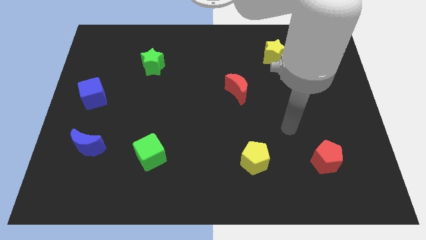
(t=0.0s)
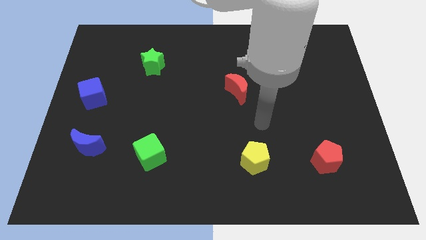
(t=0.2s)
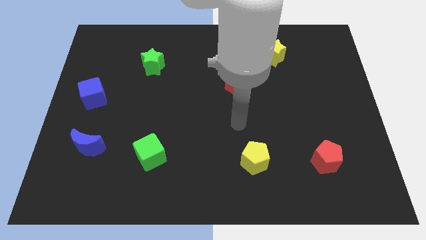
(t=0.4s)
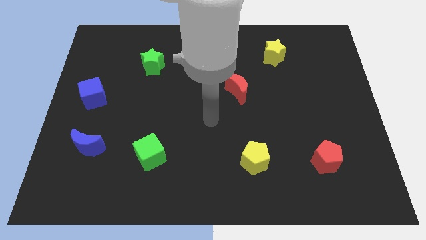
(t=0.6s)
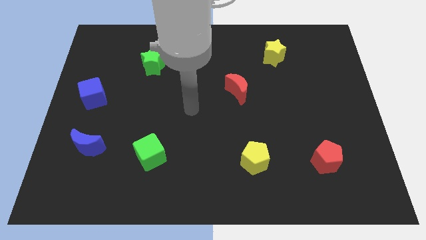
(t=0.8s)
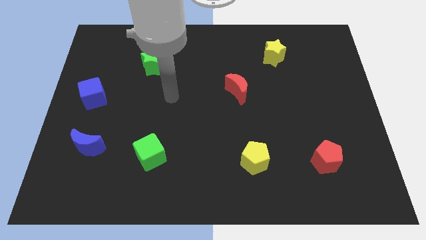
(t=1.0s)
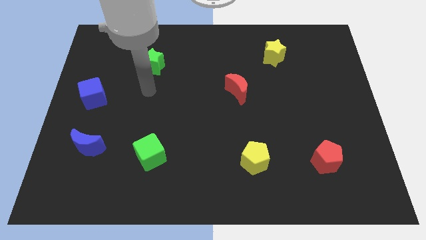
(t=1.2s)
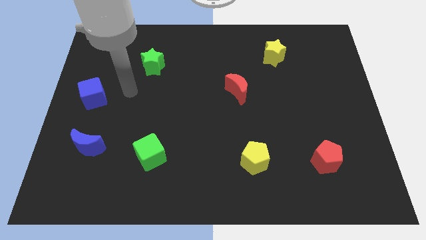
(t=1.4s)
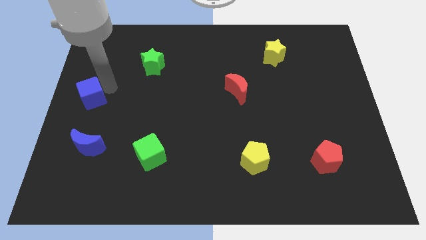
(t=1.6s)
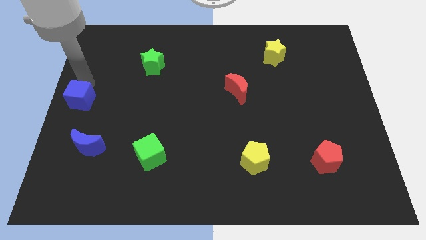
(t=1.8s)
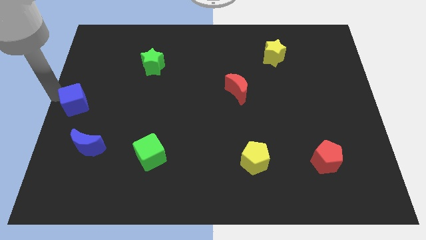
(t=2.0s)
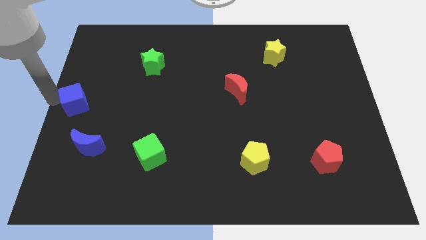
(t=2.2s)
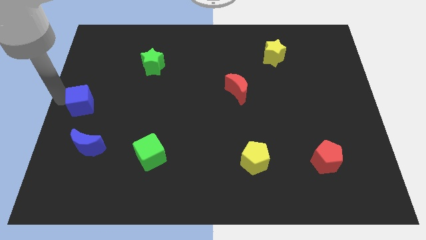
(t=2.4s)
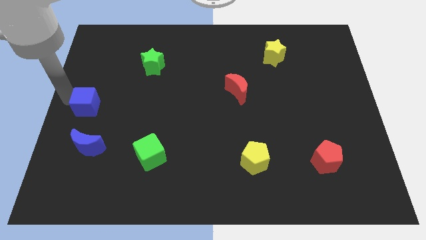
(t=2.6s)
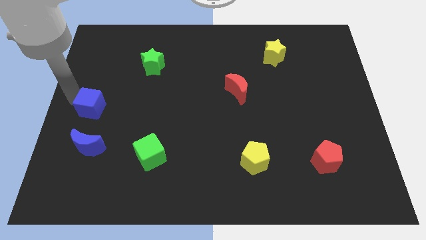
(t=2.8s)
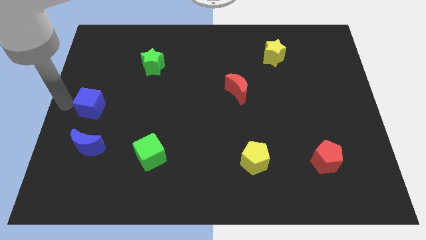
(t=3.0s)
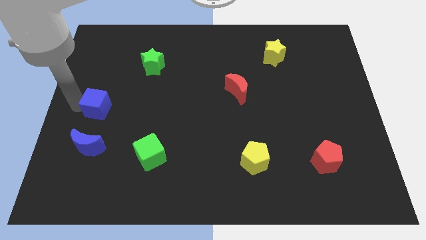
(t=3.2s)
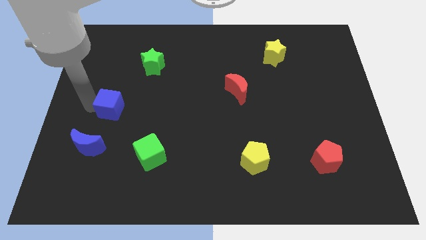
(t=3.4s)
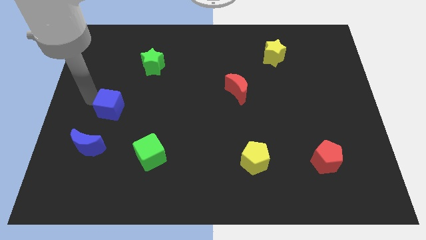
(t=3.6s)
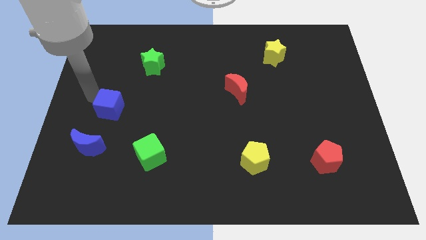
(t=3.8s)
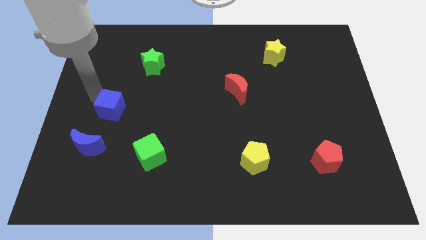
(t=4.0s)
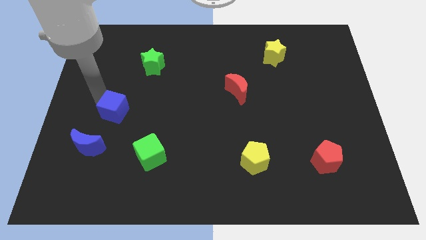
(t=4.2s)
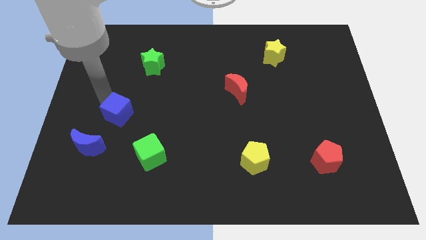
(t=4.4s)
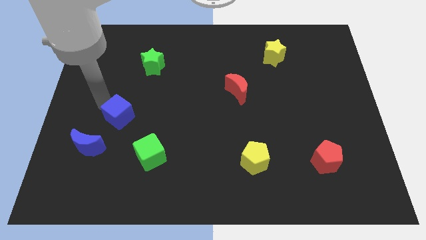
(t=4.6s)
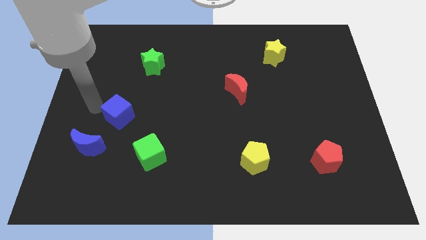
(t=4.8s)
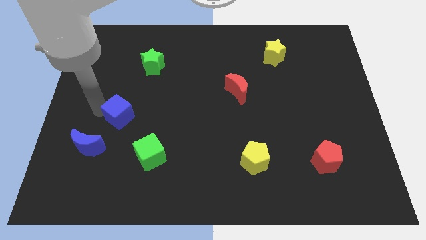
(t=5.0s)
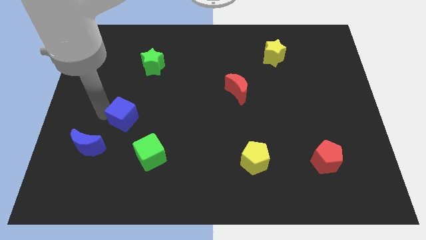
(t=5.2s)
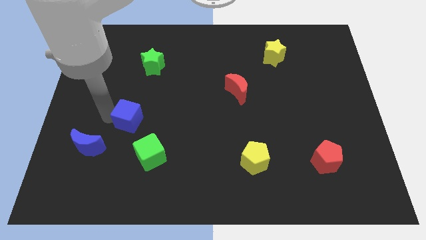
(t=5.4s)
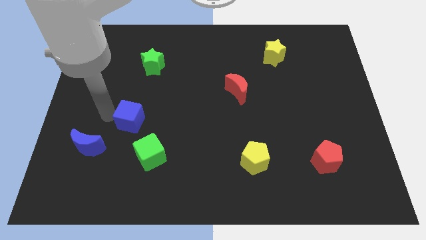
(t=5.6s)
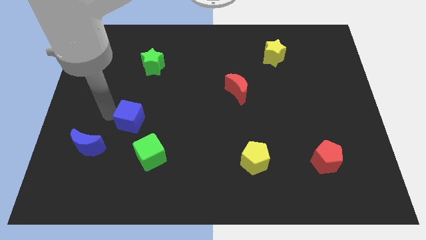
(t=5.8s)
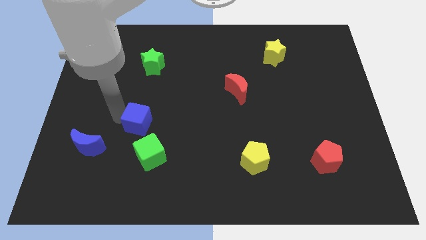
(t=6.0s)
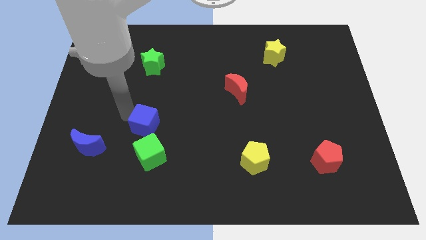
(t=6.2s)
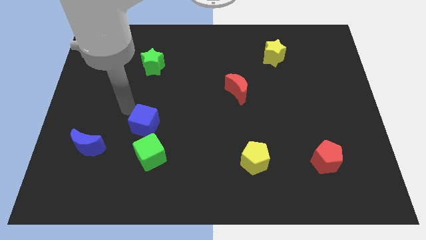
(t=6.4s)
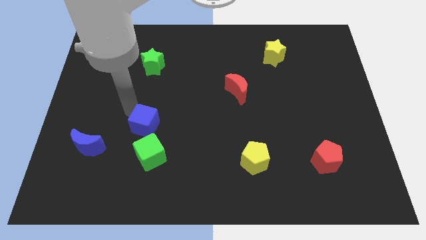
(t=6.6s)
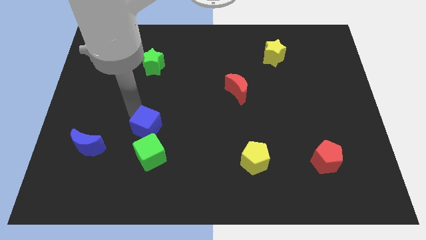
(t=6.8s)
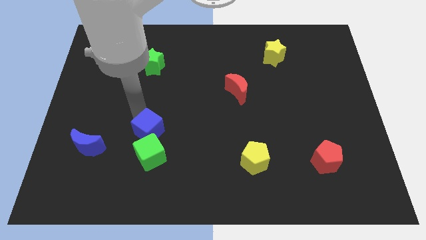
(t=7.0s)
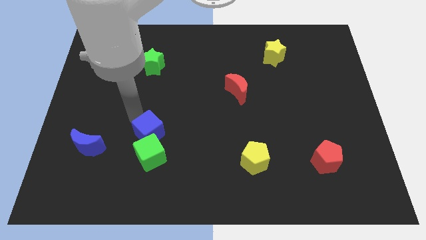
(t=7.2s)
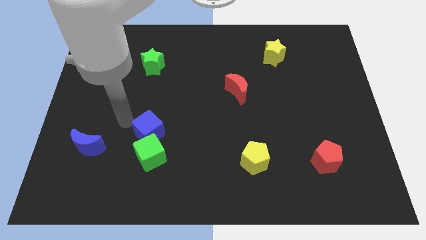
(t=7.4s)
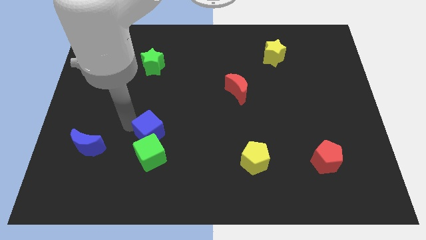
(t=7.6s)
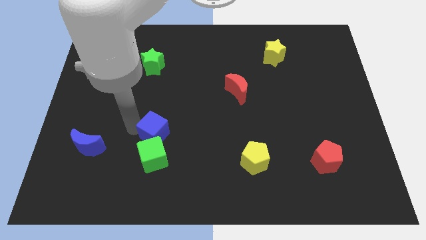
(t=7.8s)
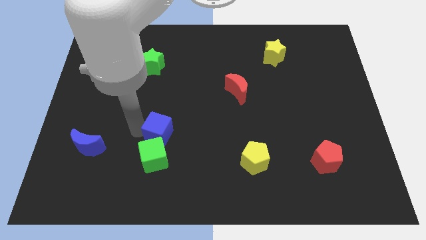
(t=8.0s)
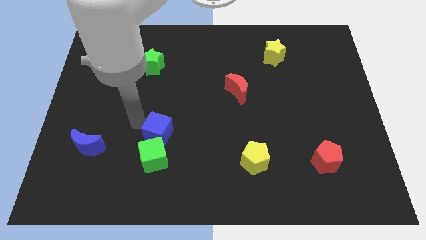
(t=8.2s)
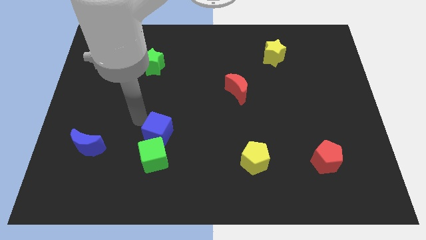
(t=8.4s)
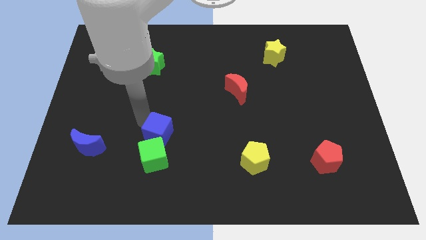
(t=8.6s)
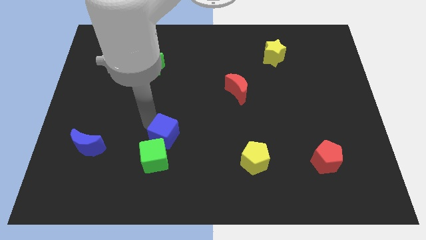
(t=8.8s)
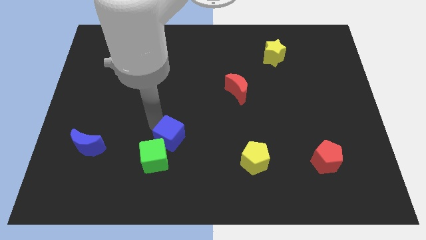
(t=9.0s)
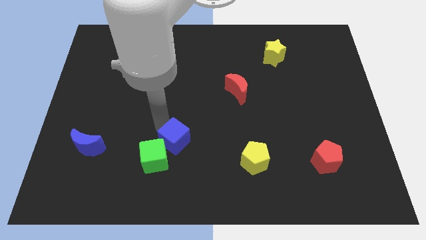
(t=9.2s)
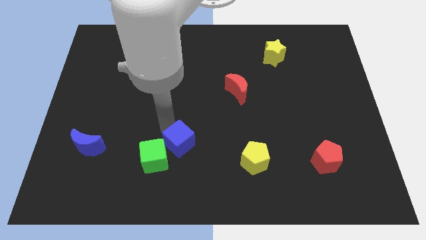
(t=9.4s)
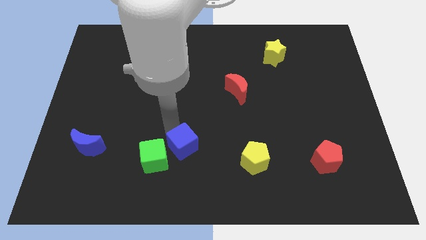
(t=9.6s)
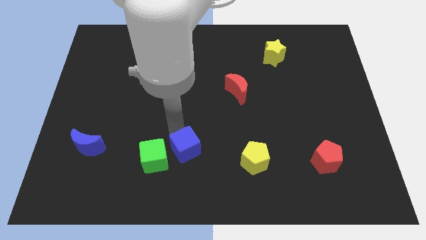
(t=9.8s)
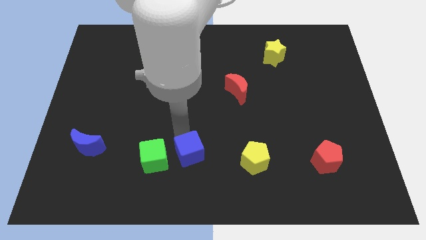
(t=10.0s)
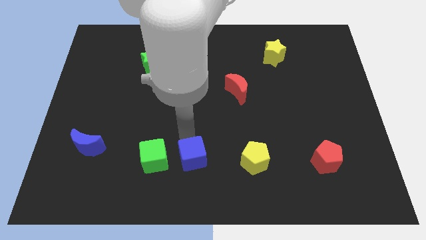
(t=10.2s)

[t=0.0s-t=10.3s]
move the blue cube to the bottom

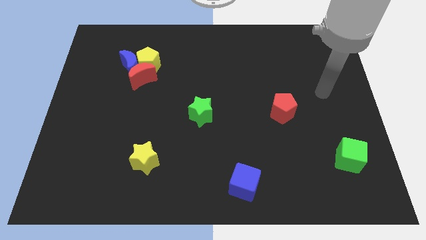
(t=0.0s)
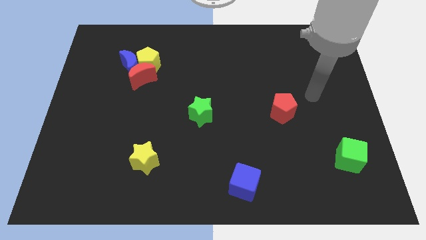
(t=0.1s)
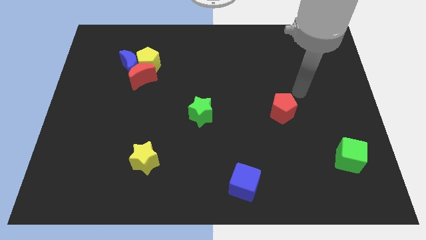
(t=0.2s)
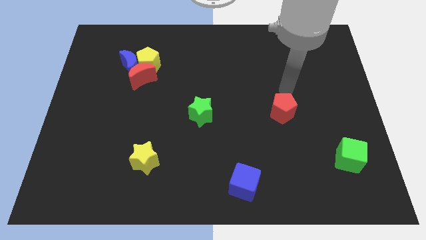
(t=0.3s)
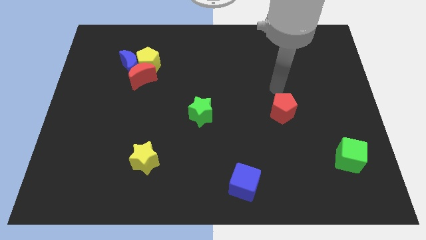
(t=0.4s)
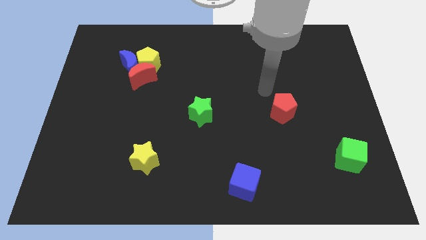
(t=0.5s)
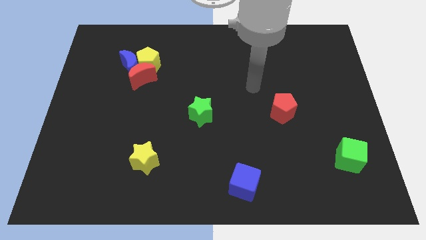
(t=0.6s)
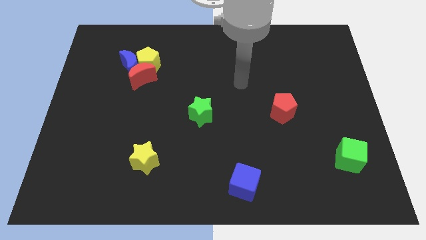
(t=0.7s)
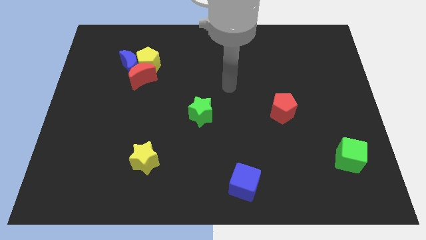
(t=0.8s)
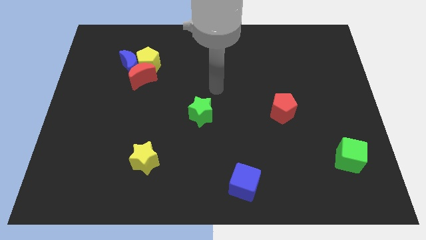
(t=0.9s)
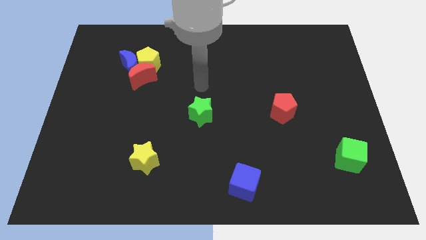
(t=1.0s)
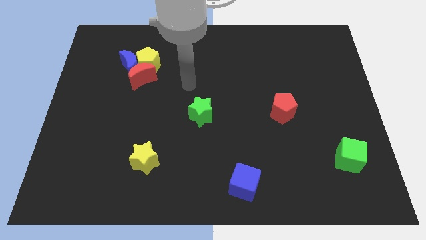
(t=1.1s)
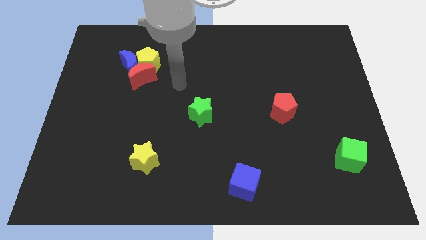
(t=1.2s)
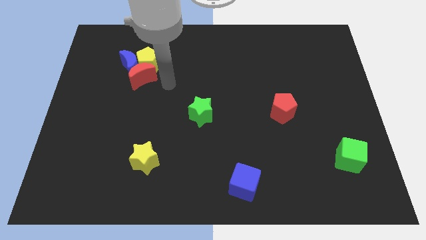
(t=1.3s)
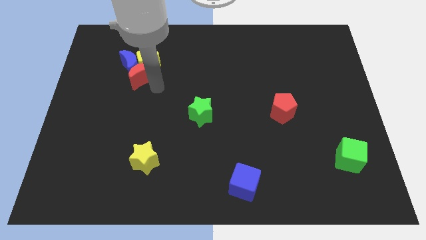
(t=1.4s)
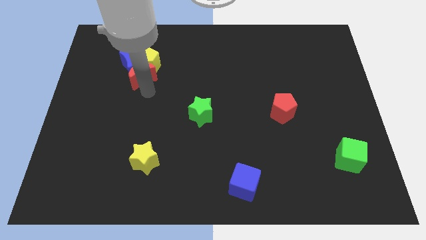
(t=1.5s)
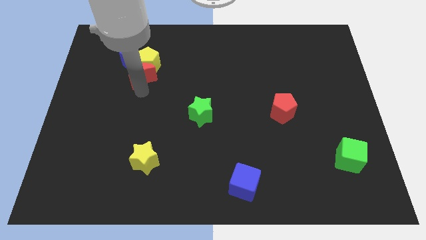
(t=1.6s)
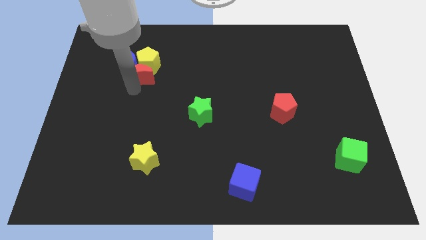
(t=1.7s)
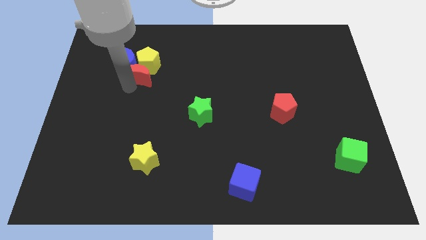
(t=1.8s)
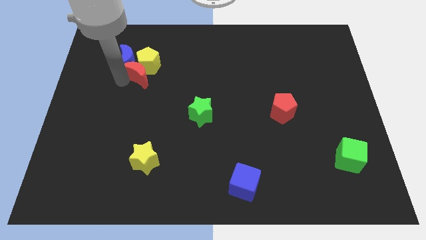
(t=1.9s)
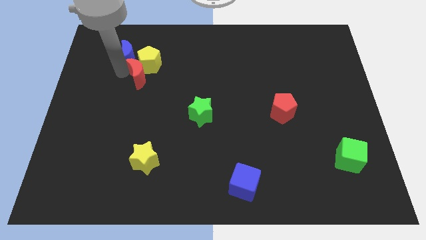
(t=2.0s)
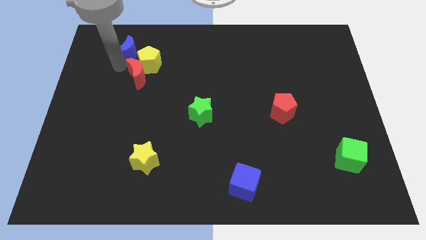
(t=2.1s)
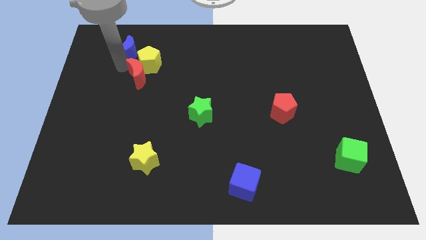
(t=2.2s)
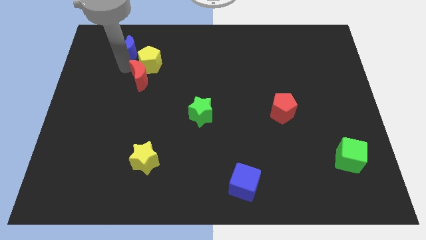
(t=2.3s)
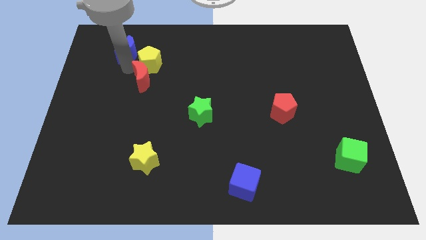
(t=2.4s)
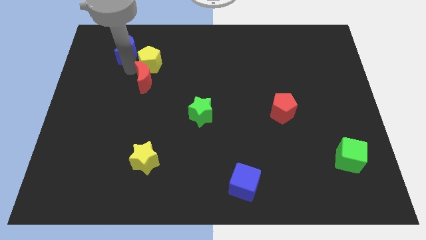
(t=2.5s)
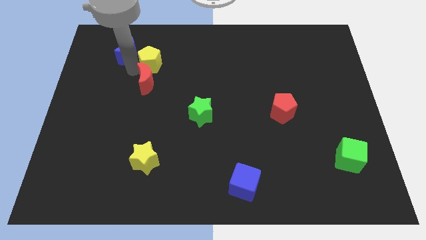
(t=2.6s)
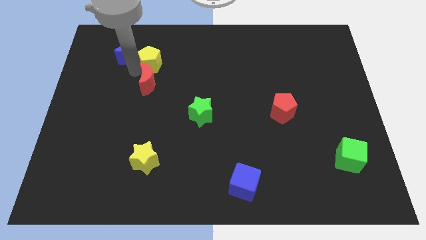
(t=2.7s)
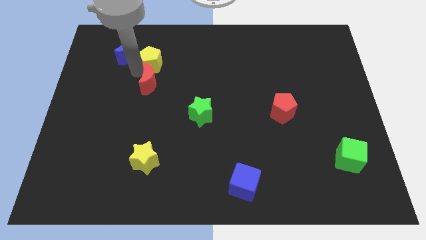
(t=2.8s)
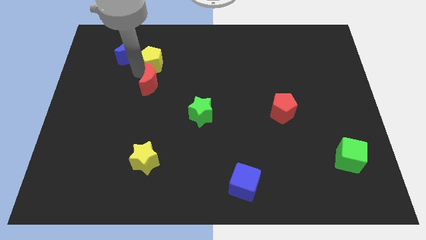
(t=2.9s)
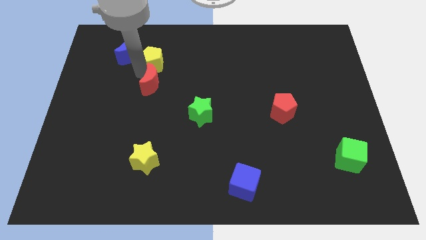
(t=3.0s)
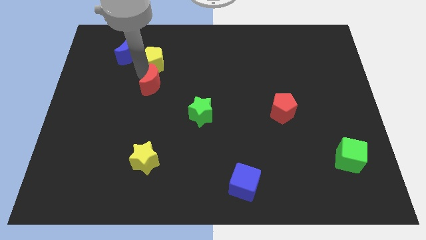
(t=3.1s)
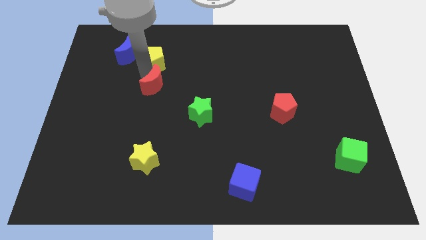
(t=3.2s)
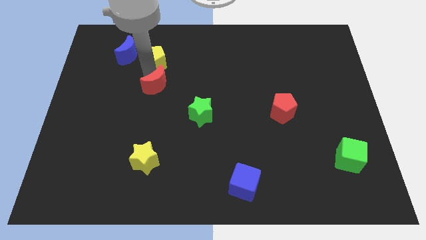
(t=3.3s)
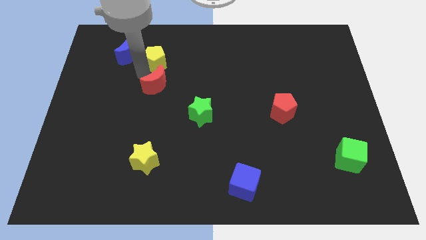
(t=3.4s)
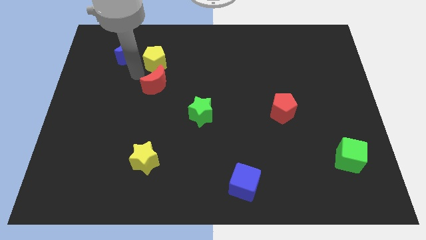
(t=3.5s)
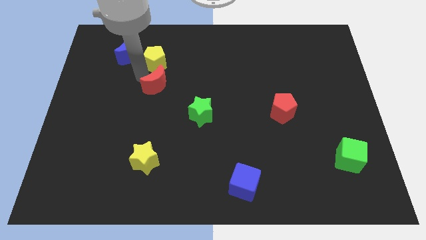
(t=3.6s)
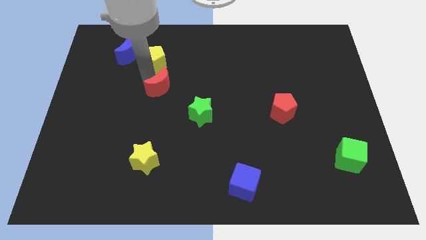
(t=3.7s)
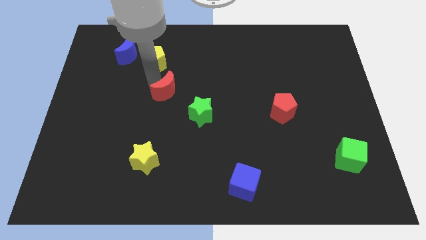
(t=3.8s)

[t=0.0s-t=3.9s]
slide the red moon to the middle of the board
